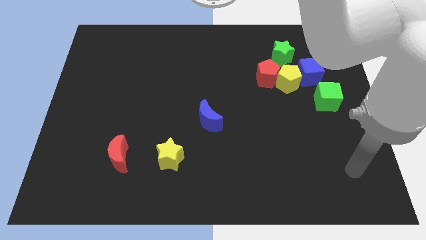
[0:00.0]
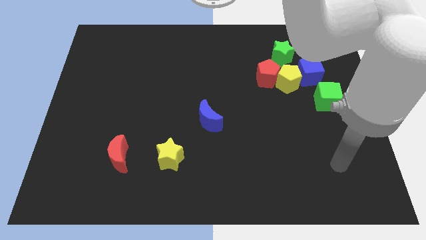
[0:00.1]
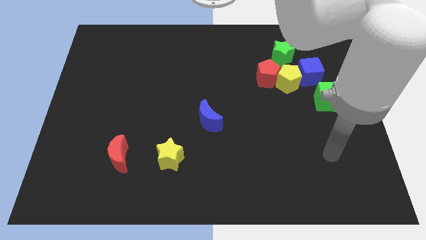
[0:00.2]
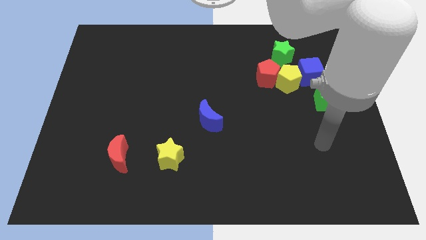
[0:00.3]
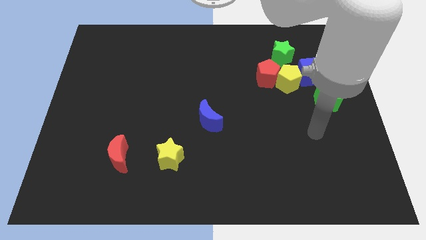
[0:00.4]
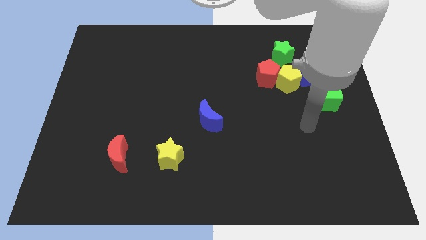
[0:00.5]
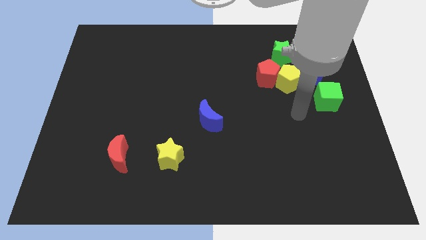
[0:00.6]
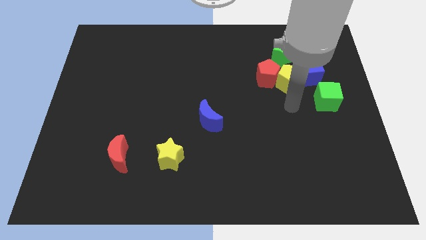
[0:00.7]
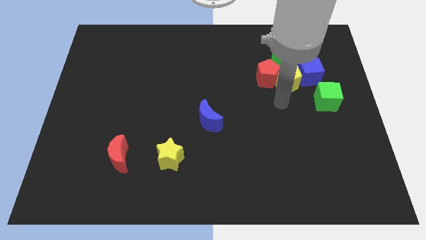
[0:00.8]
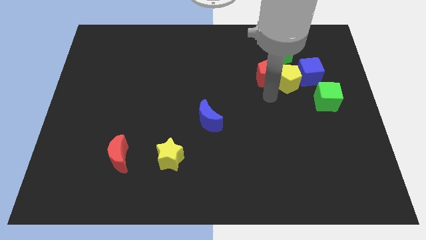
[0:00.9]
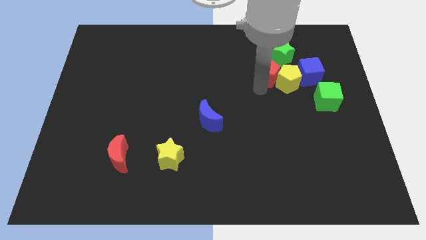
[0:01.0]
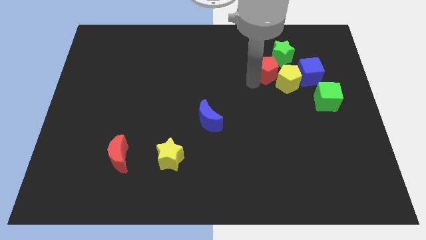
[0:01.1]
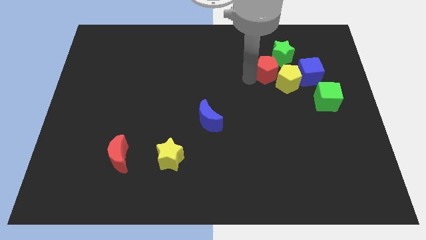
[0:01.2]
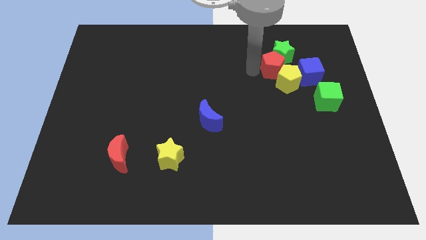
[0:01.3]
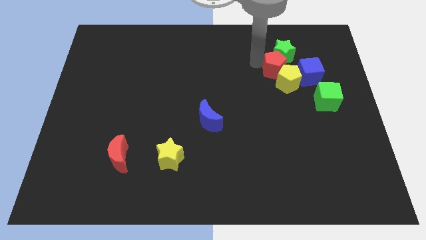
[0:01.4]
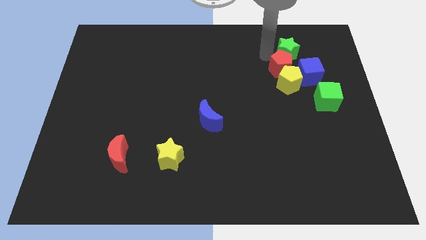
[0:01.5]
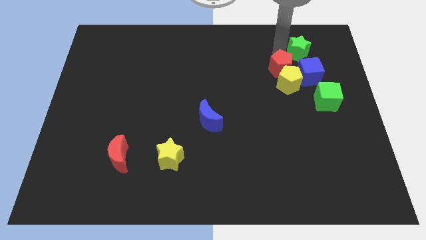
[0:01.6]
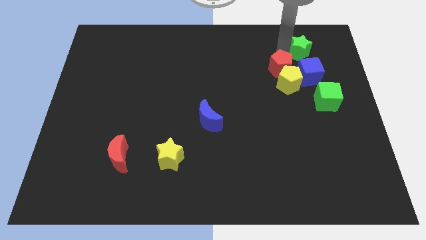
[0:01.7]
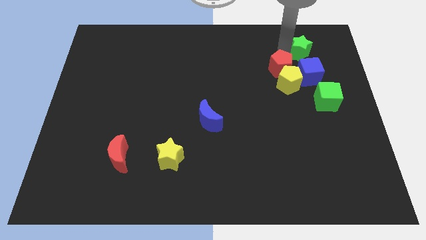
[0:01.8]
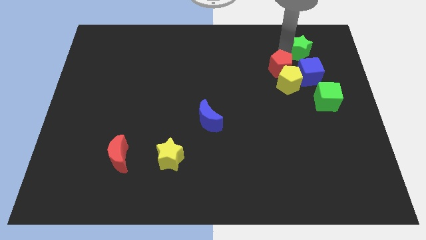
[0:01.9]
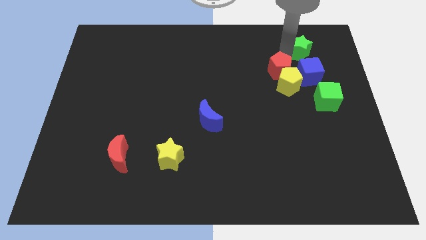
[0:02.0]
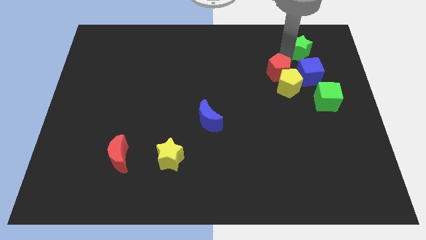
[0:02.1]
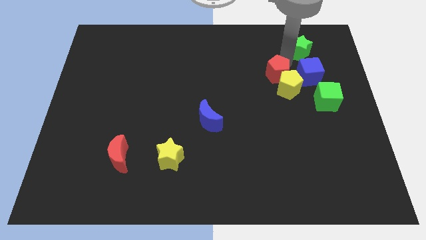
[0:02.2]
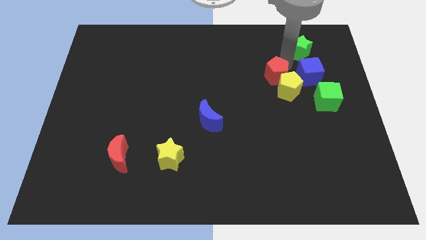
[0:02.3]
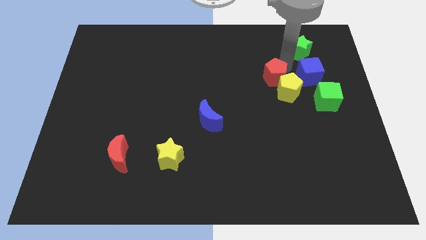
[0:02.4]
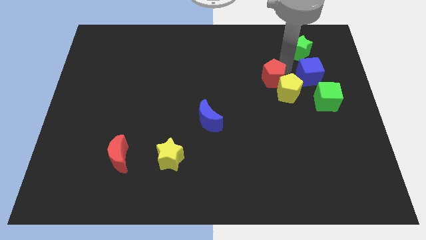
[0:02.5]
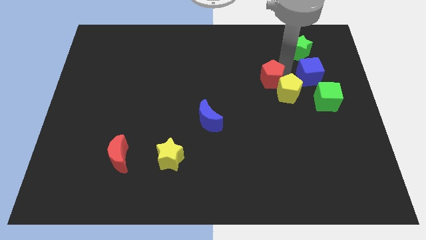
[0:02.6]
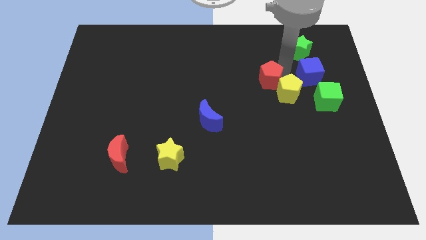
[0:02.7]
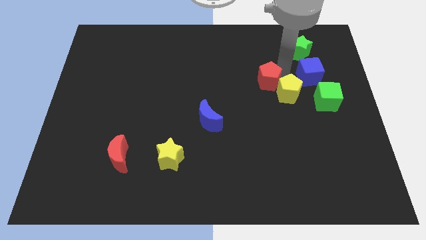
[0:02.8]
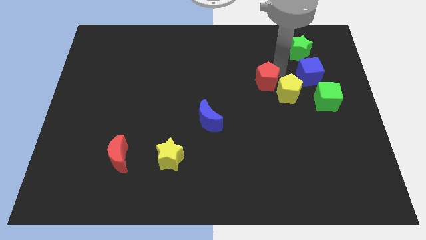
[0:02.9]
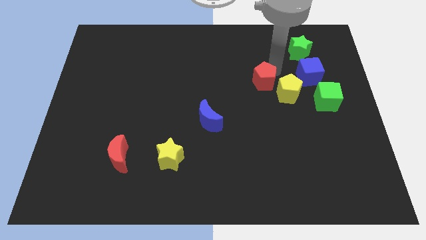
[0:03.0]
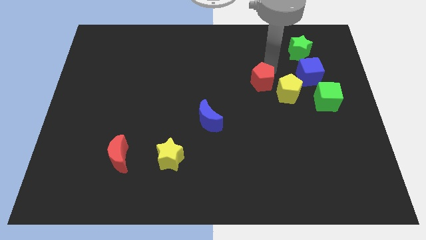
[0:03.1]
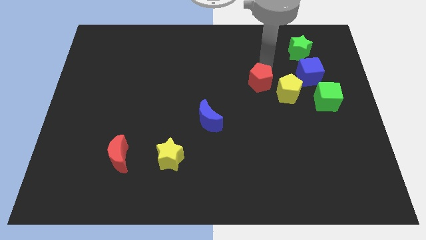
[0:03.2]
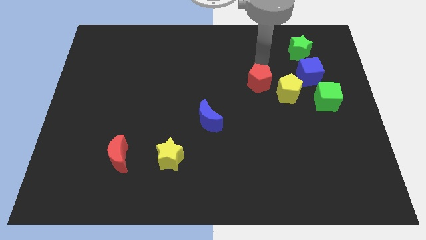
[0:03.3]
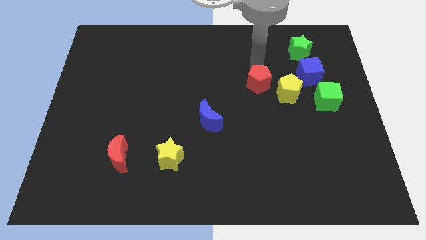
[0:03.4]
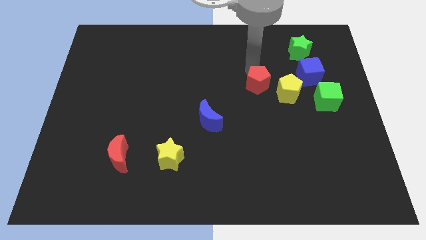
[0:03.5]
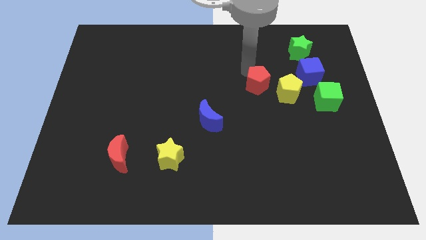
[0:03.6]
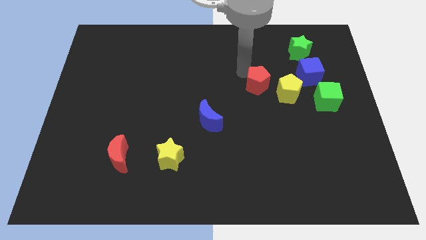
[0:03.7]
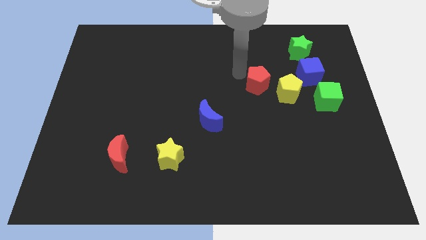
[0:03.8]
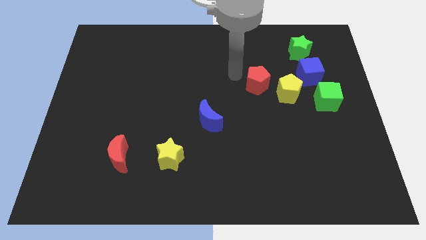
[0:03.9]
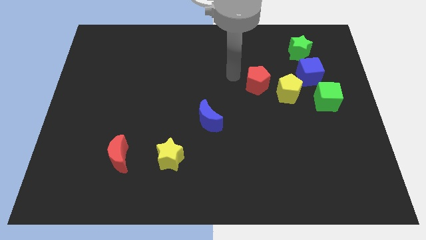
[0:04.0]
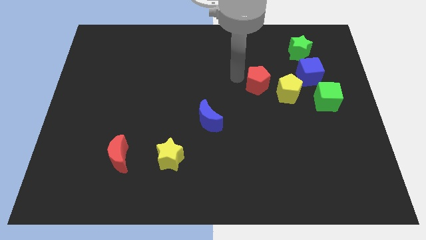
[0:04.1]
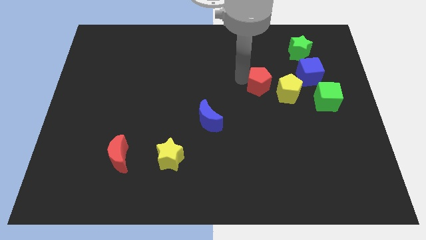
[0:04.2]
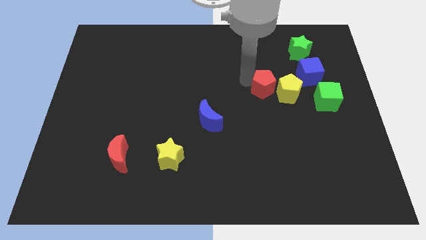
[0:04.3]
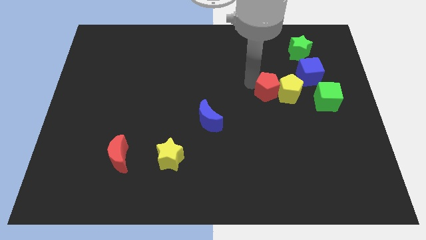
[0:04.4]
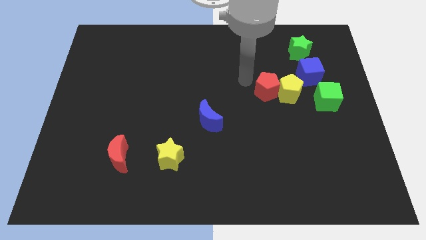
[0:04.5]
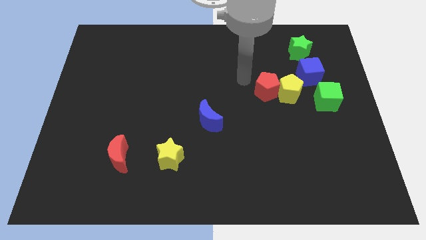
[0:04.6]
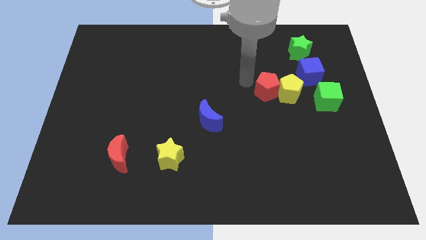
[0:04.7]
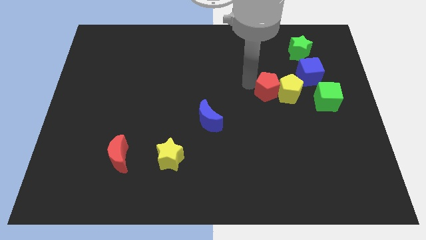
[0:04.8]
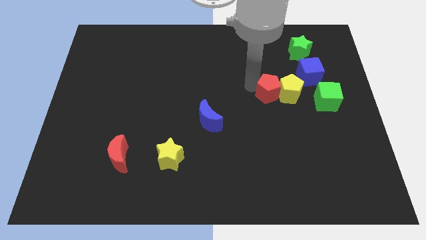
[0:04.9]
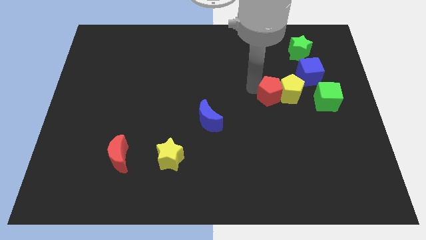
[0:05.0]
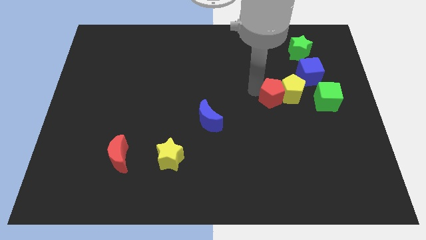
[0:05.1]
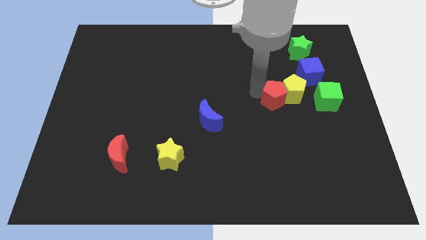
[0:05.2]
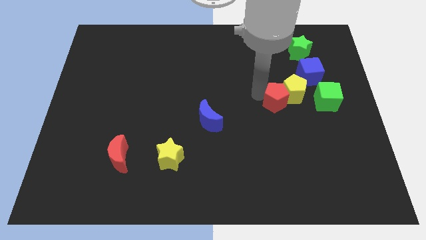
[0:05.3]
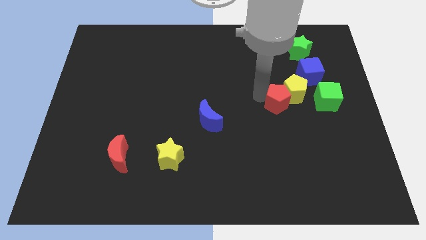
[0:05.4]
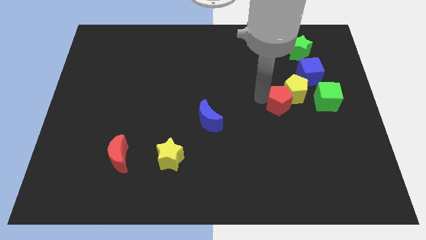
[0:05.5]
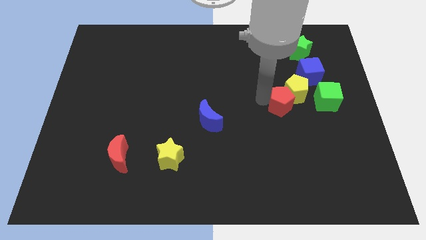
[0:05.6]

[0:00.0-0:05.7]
slide the red pentagon somewhat diagonally down and right

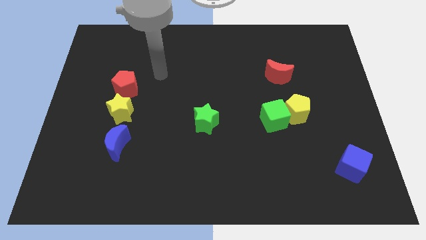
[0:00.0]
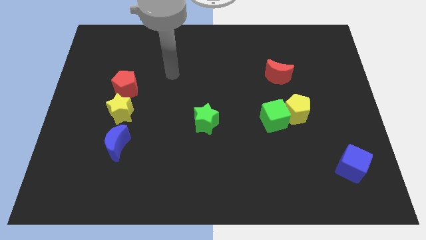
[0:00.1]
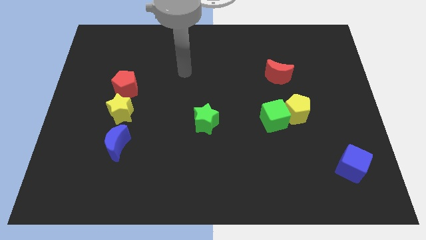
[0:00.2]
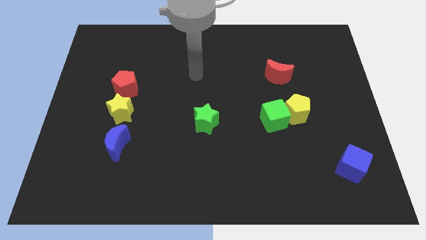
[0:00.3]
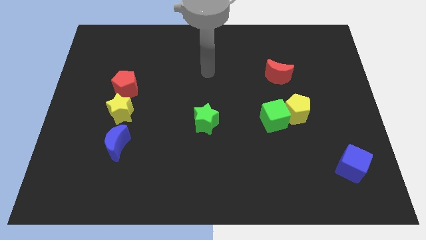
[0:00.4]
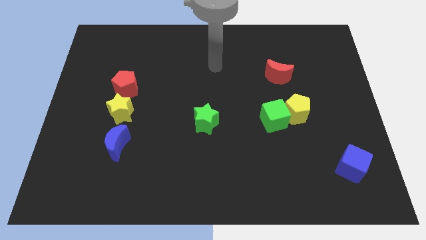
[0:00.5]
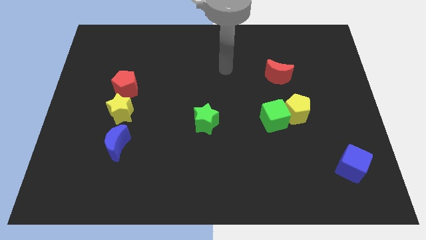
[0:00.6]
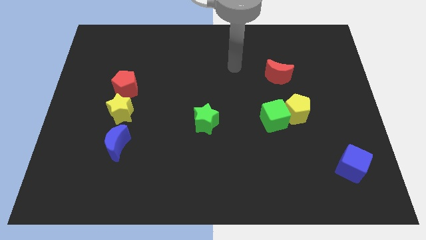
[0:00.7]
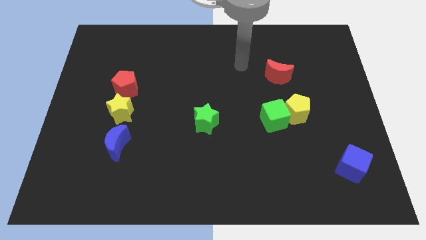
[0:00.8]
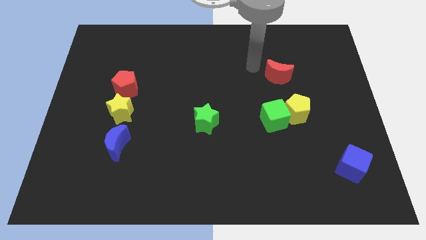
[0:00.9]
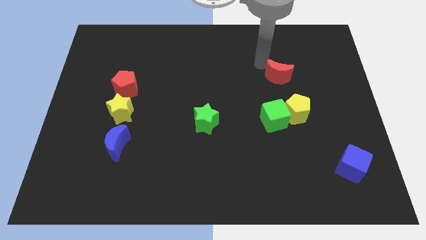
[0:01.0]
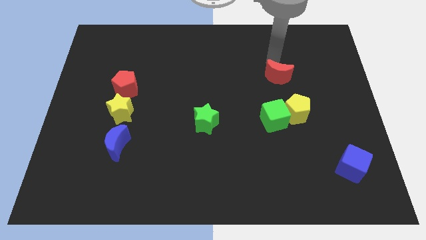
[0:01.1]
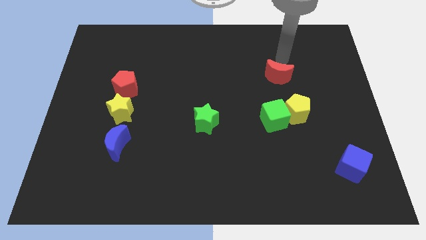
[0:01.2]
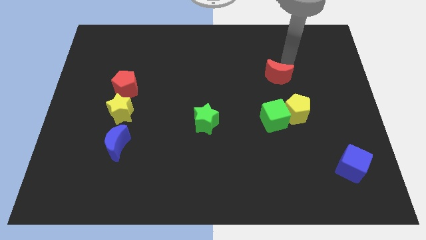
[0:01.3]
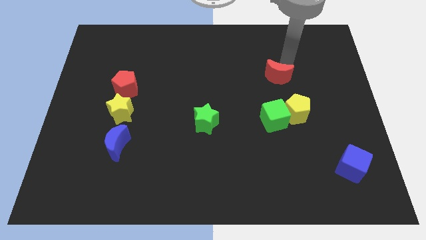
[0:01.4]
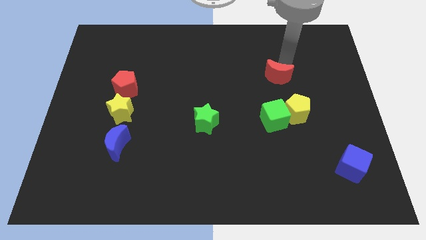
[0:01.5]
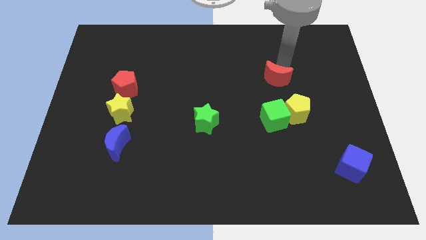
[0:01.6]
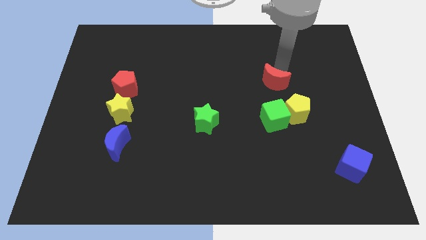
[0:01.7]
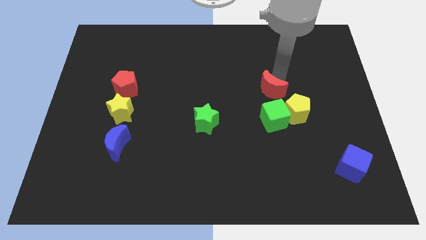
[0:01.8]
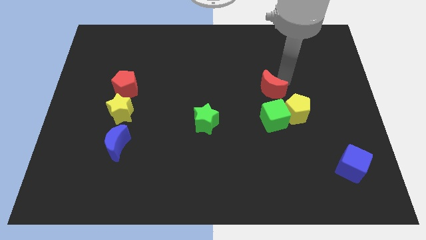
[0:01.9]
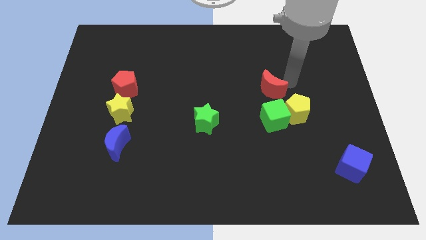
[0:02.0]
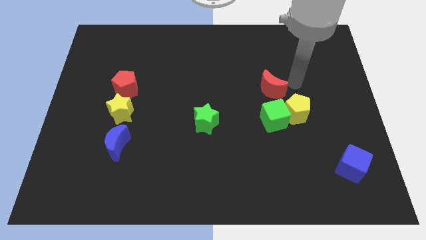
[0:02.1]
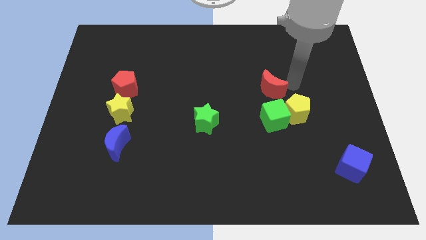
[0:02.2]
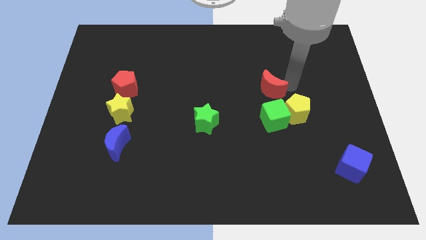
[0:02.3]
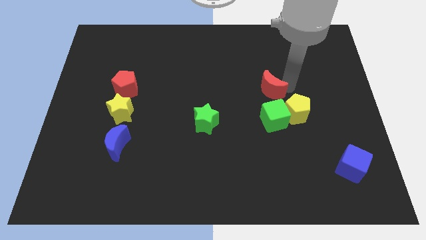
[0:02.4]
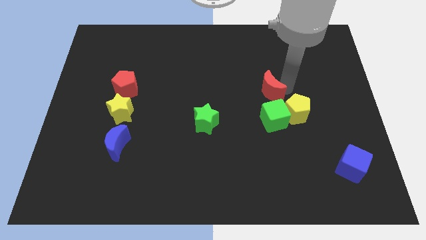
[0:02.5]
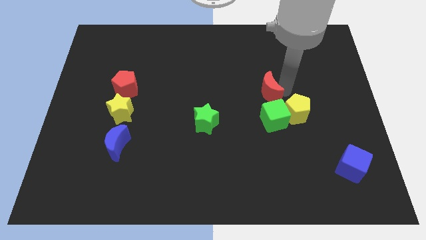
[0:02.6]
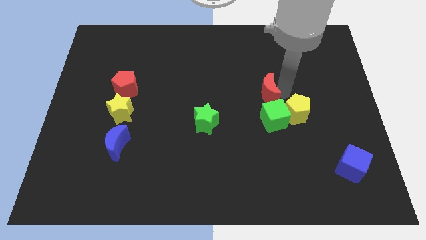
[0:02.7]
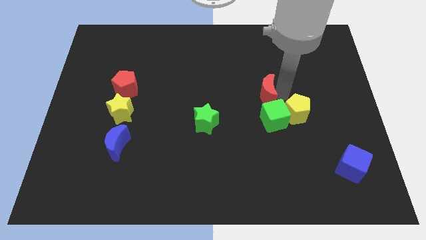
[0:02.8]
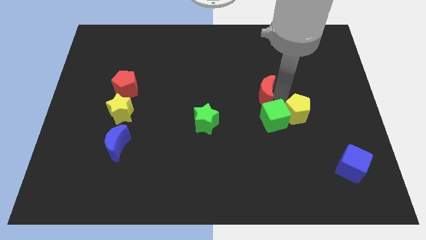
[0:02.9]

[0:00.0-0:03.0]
slightly push the red moon diagonally down and left
